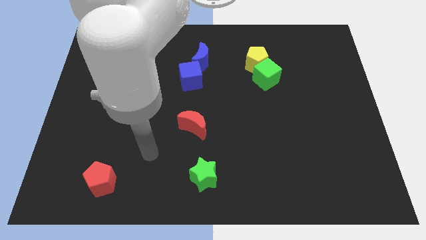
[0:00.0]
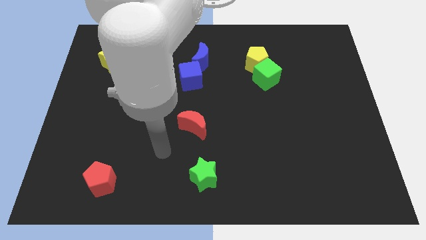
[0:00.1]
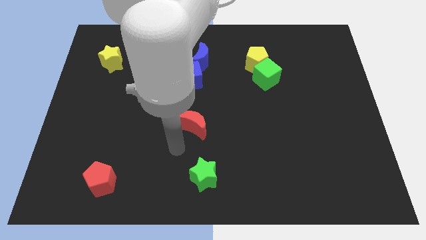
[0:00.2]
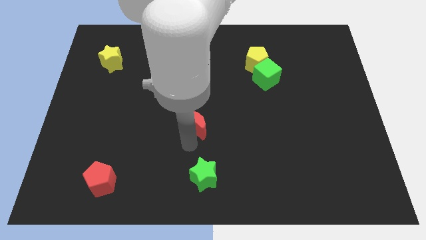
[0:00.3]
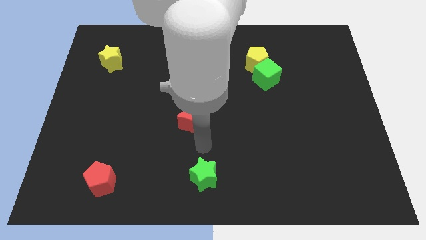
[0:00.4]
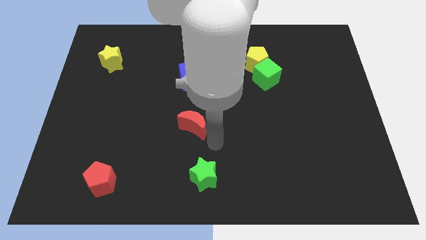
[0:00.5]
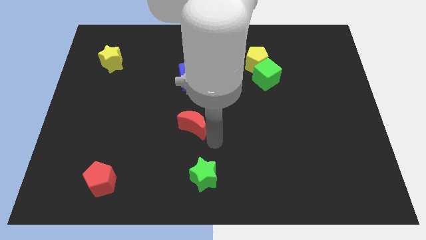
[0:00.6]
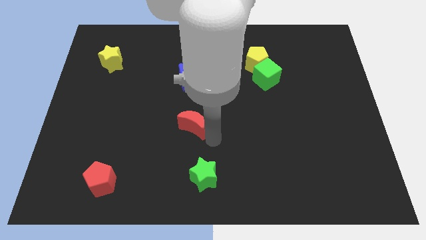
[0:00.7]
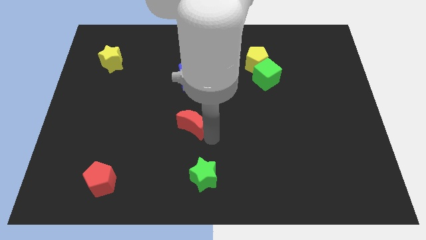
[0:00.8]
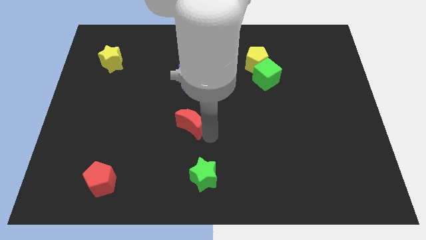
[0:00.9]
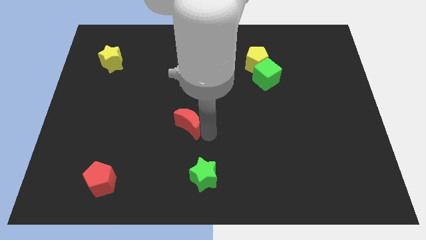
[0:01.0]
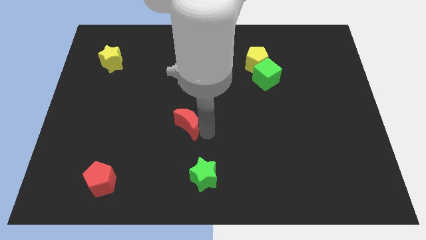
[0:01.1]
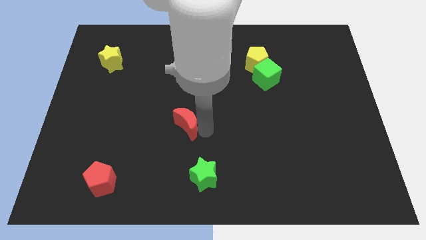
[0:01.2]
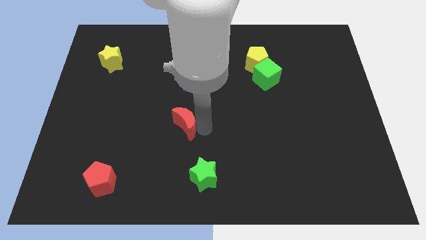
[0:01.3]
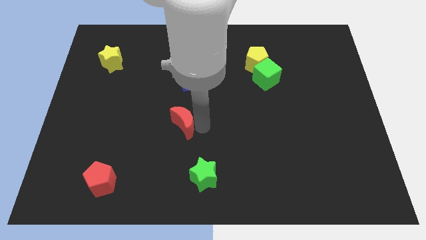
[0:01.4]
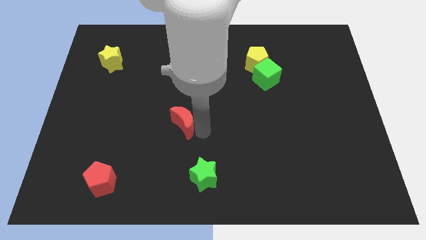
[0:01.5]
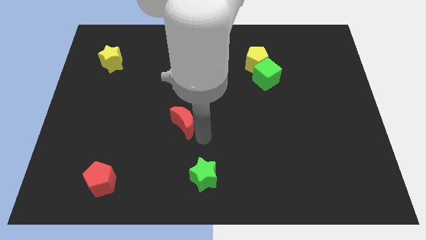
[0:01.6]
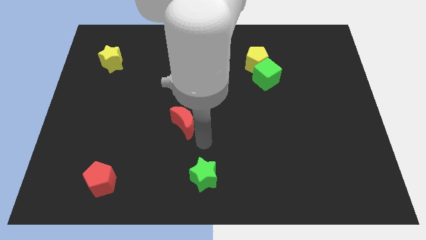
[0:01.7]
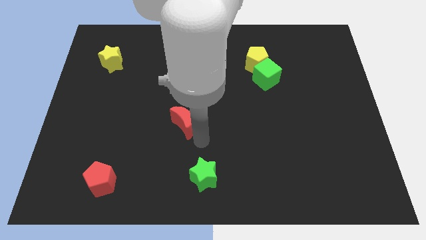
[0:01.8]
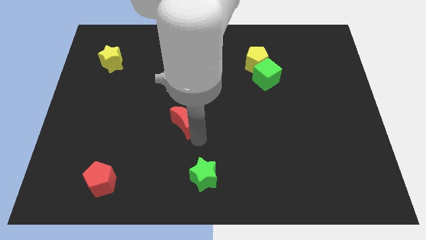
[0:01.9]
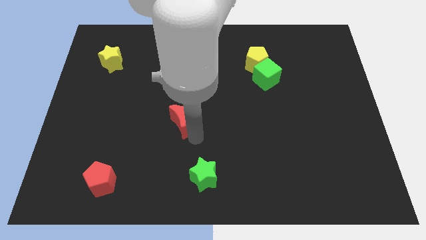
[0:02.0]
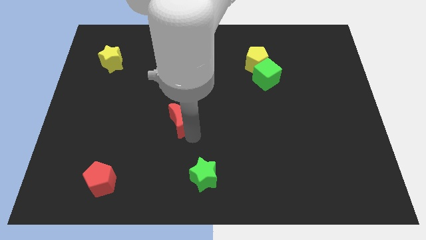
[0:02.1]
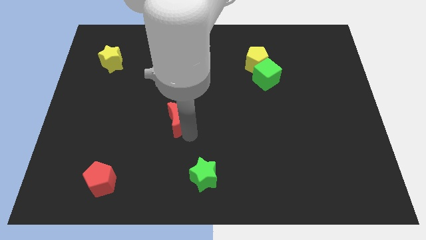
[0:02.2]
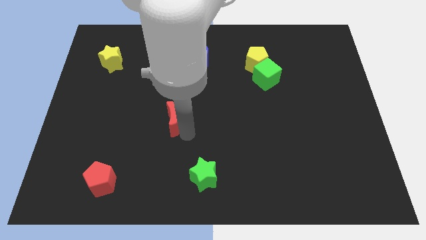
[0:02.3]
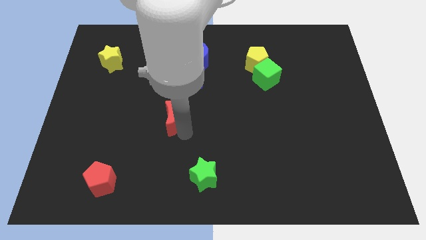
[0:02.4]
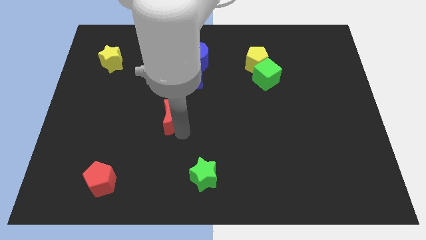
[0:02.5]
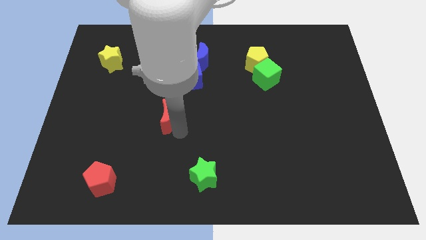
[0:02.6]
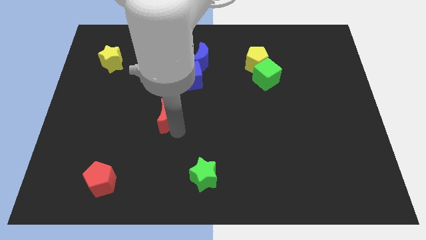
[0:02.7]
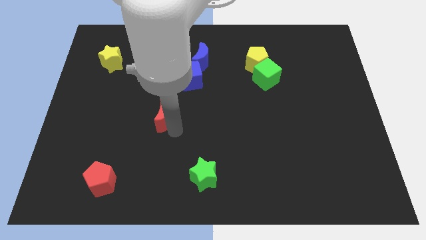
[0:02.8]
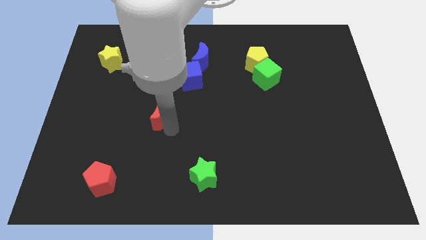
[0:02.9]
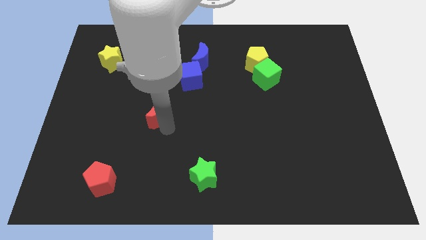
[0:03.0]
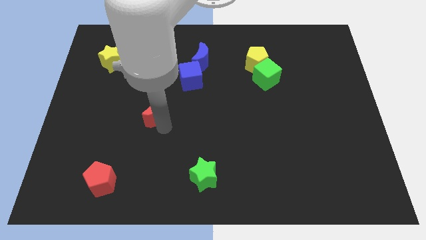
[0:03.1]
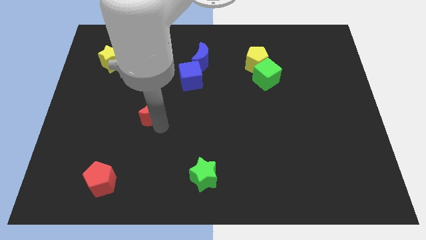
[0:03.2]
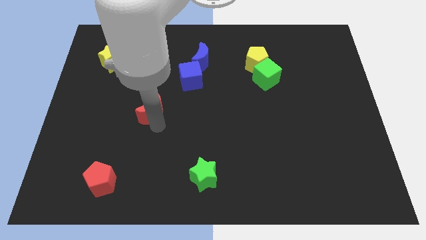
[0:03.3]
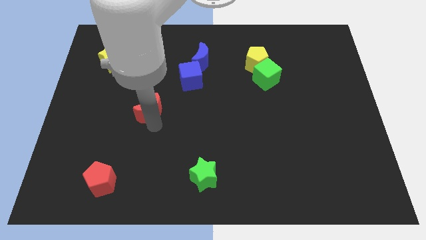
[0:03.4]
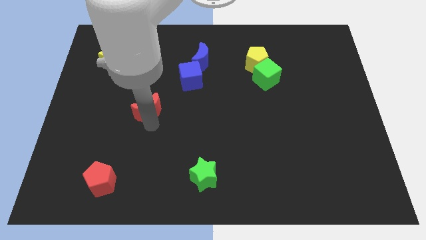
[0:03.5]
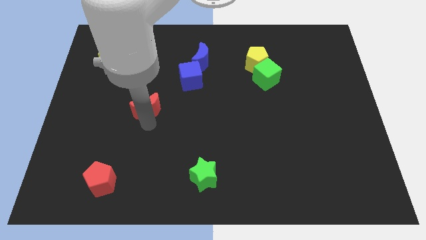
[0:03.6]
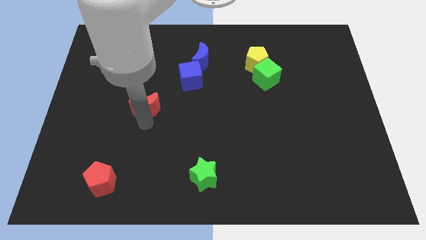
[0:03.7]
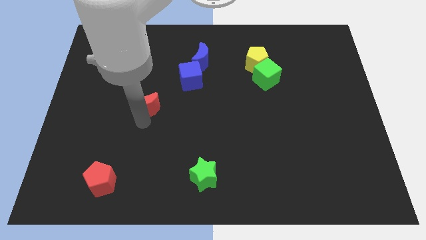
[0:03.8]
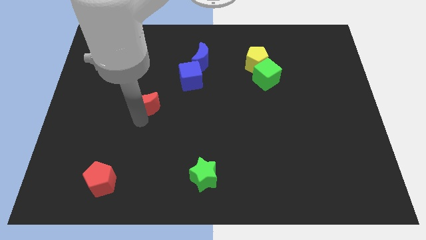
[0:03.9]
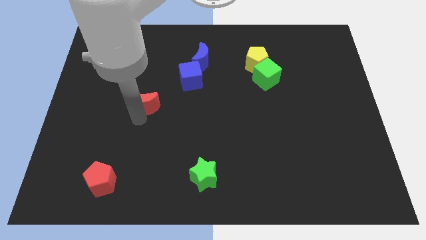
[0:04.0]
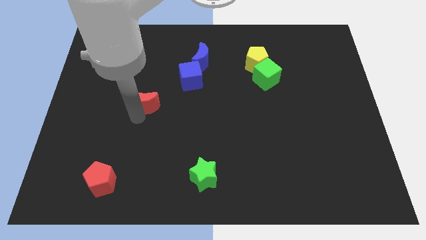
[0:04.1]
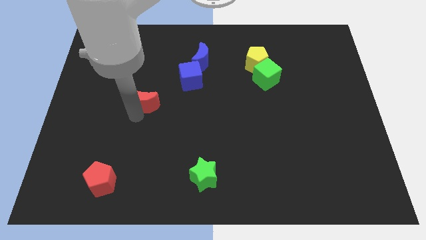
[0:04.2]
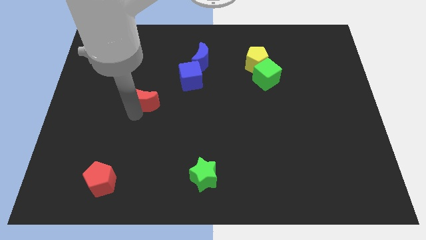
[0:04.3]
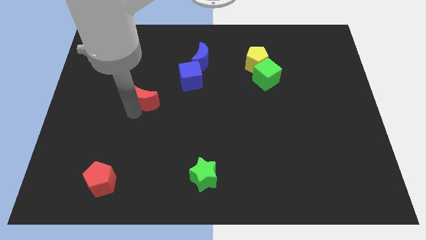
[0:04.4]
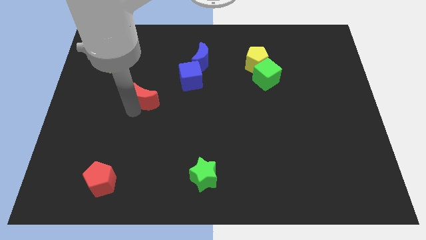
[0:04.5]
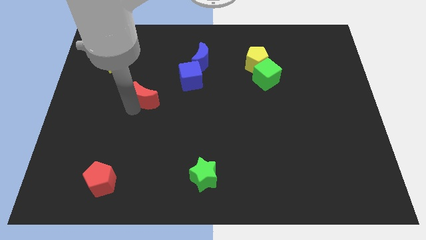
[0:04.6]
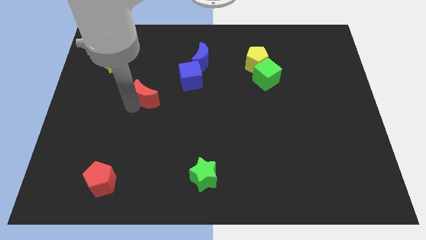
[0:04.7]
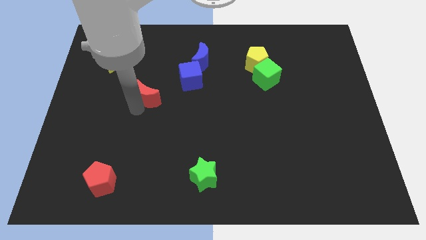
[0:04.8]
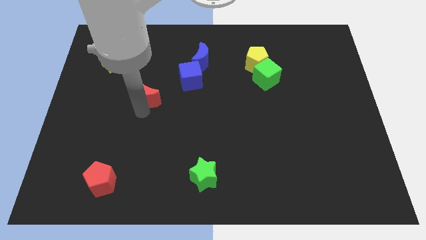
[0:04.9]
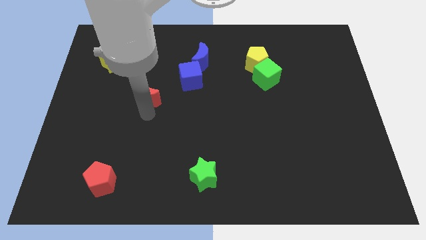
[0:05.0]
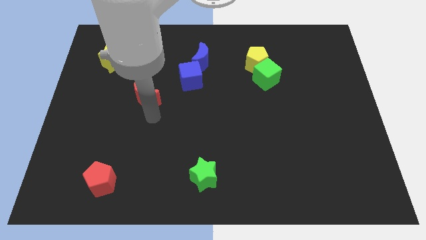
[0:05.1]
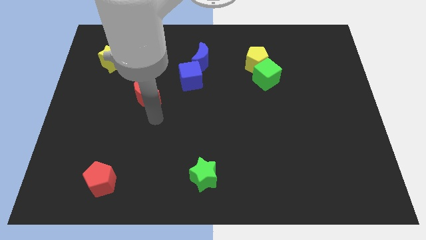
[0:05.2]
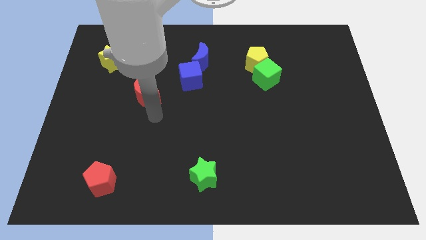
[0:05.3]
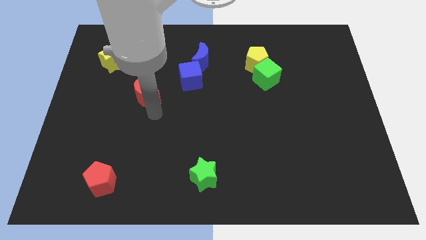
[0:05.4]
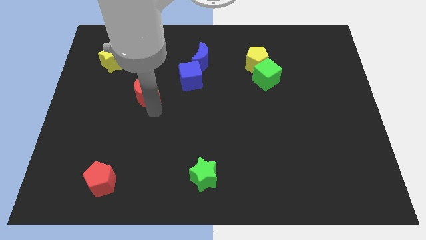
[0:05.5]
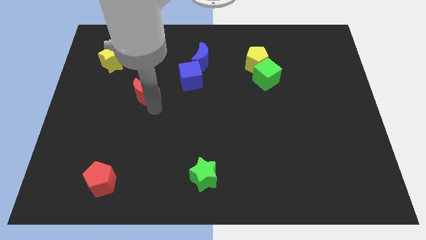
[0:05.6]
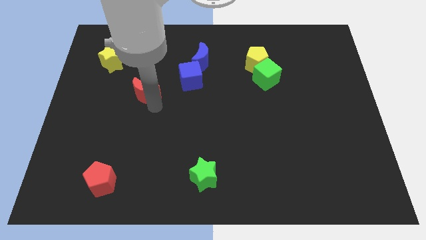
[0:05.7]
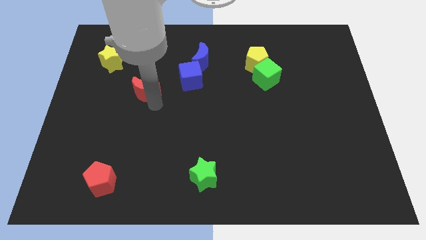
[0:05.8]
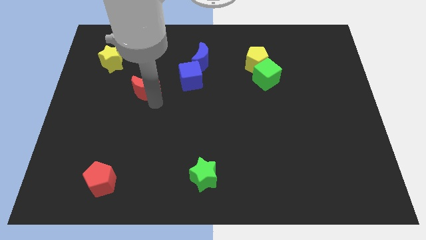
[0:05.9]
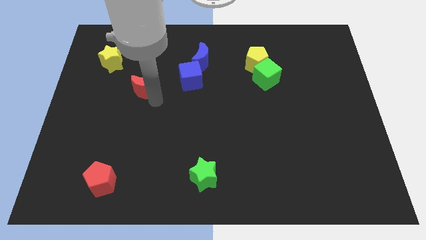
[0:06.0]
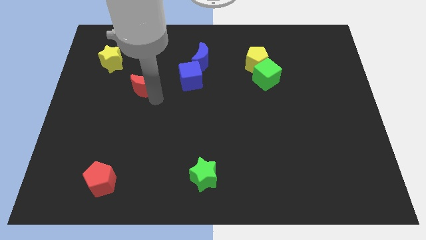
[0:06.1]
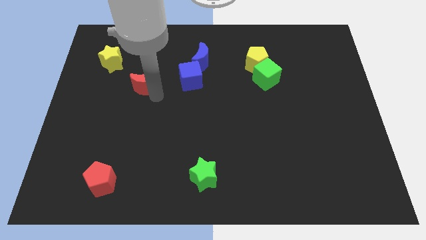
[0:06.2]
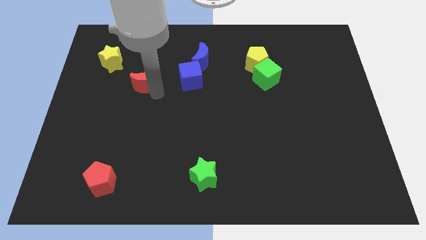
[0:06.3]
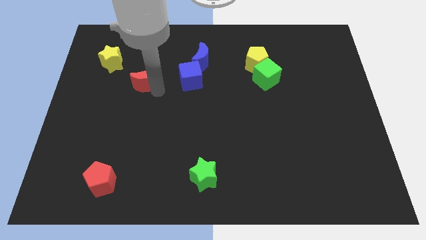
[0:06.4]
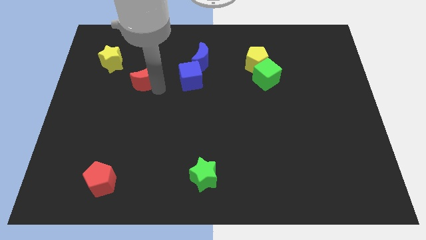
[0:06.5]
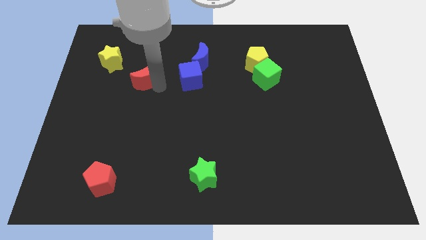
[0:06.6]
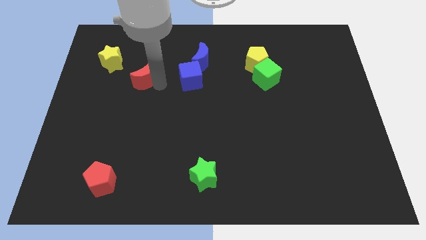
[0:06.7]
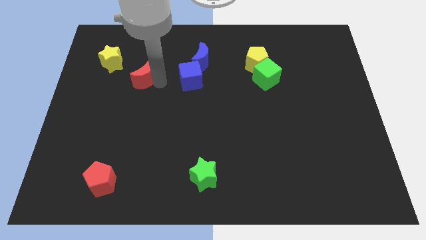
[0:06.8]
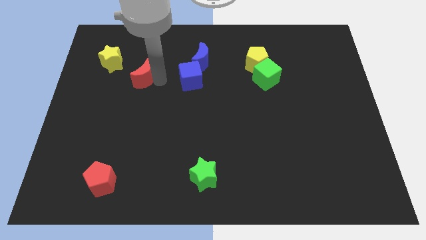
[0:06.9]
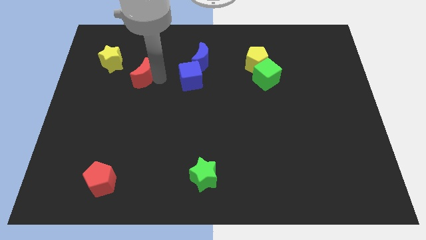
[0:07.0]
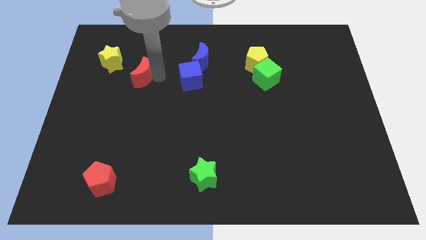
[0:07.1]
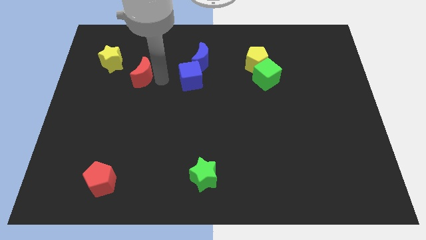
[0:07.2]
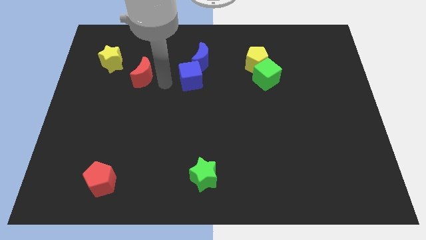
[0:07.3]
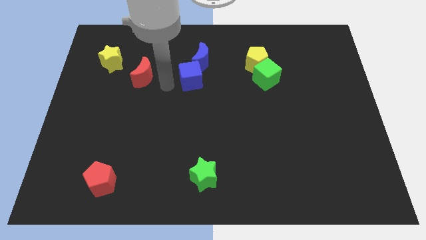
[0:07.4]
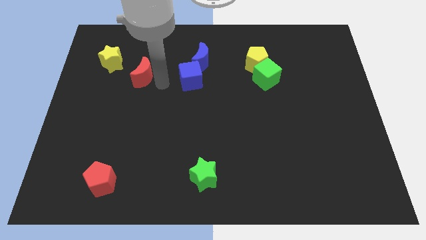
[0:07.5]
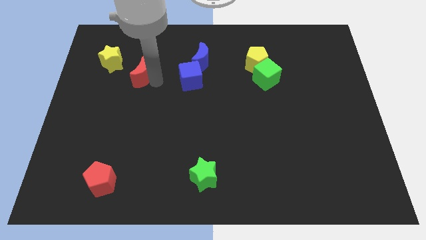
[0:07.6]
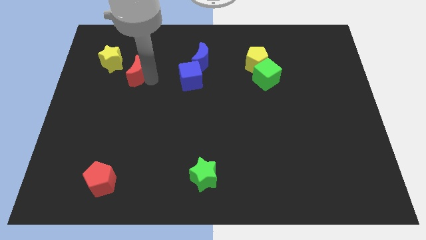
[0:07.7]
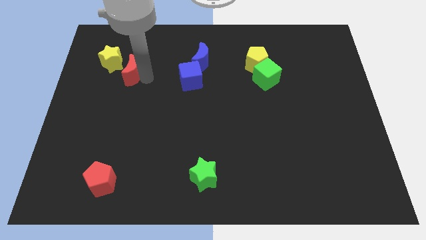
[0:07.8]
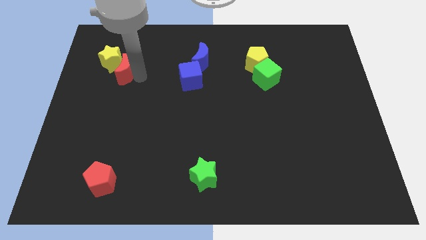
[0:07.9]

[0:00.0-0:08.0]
move the red moon close to the yellow star
